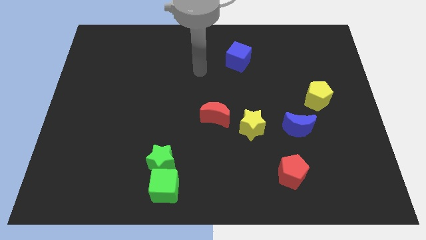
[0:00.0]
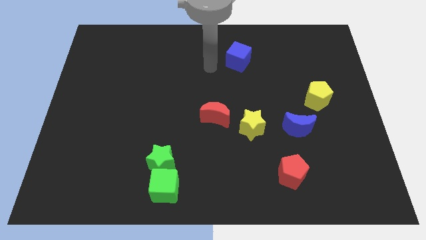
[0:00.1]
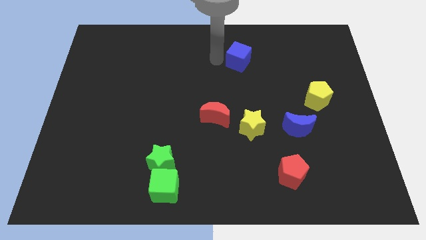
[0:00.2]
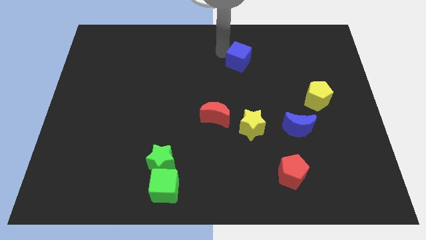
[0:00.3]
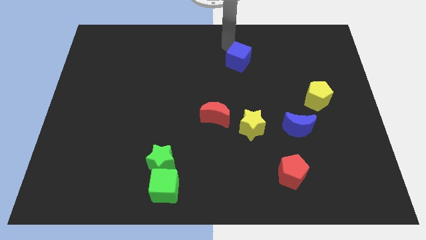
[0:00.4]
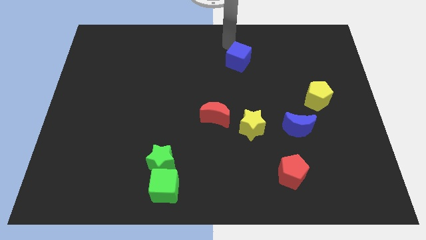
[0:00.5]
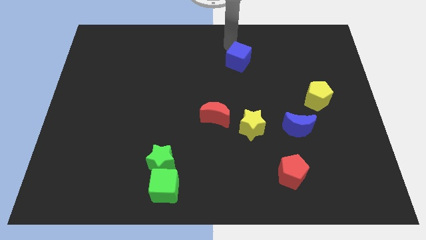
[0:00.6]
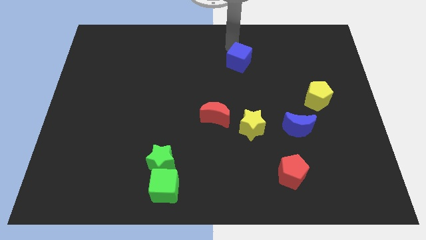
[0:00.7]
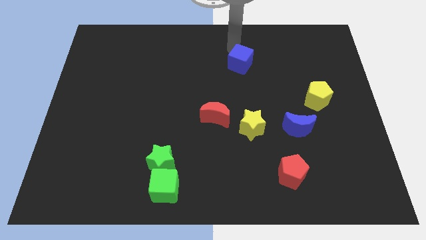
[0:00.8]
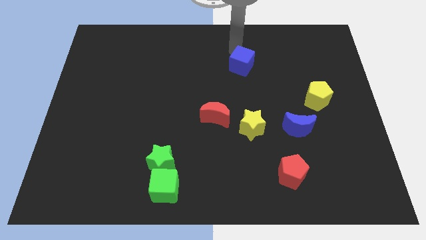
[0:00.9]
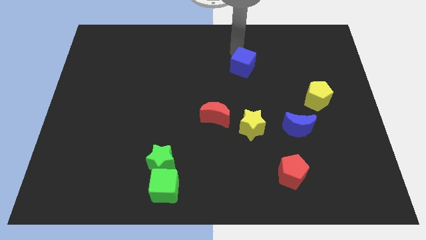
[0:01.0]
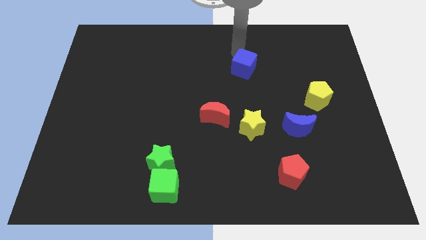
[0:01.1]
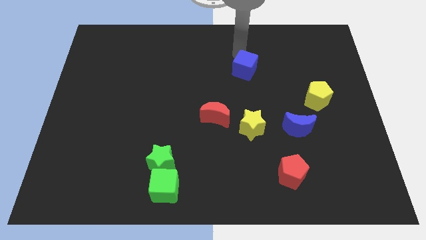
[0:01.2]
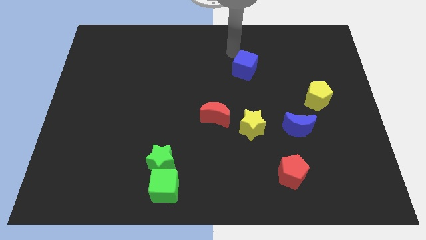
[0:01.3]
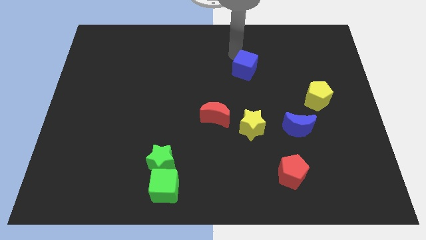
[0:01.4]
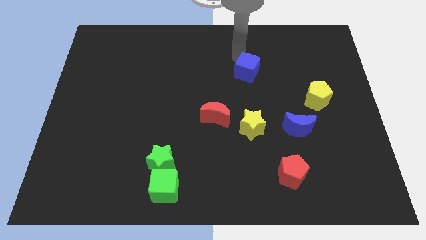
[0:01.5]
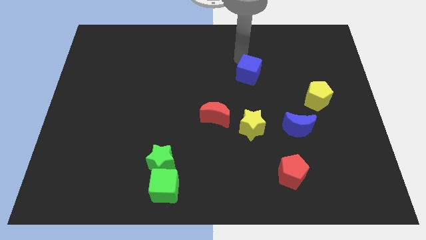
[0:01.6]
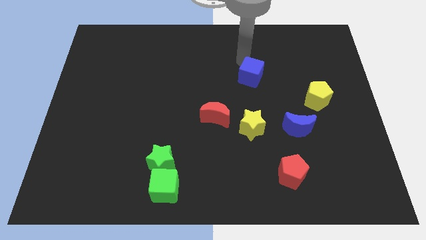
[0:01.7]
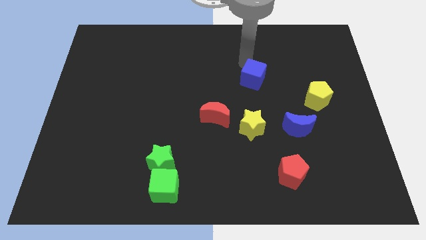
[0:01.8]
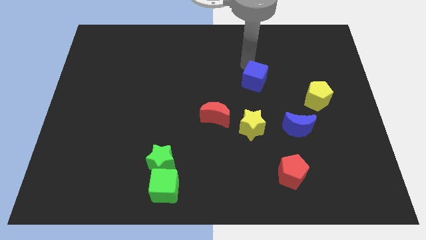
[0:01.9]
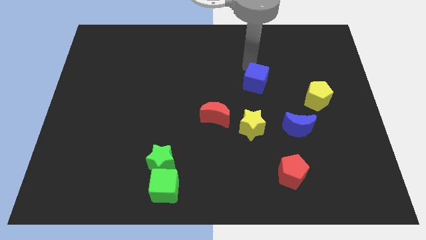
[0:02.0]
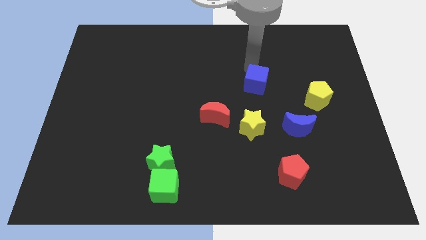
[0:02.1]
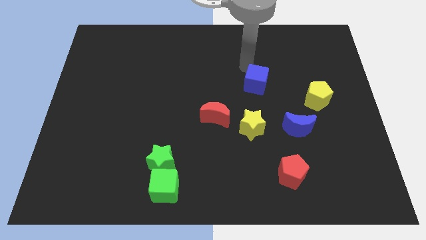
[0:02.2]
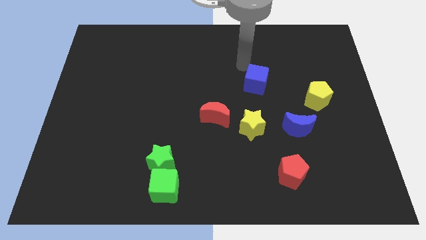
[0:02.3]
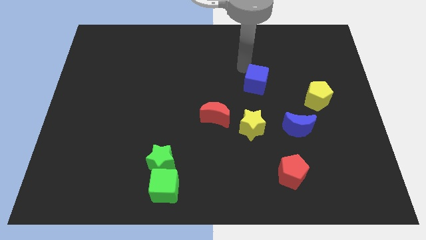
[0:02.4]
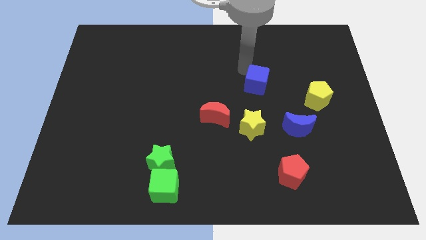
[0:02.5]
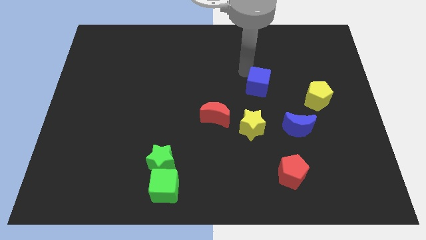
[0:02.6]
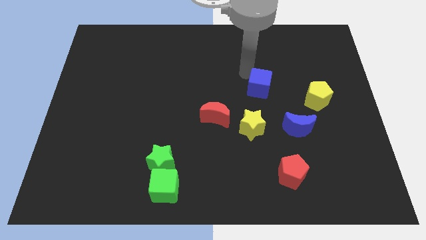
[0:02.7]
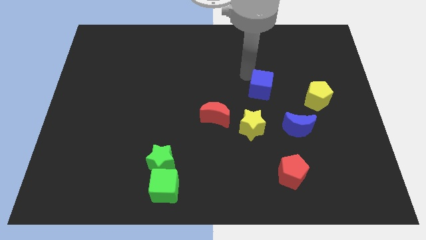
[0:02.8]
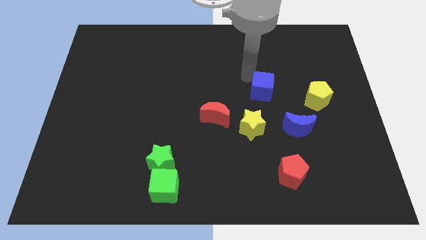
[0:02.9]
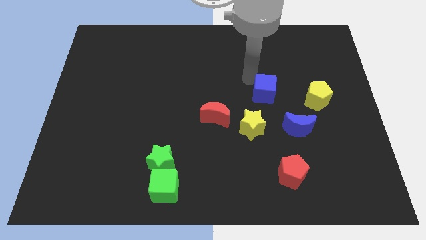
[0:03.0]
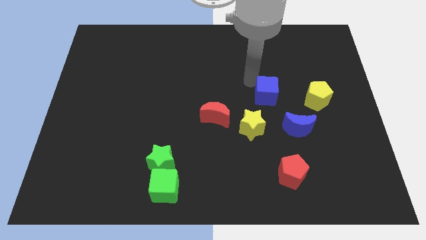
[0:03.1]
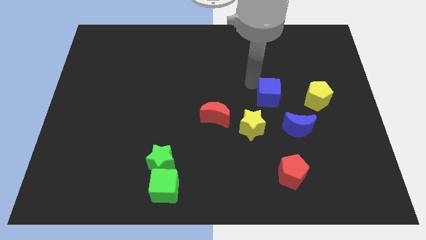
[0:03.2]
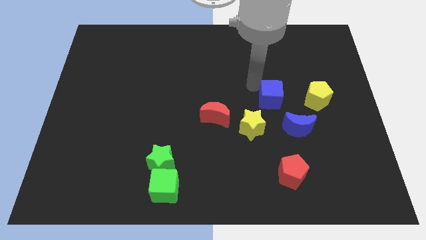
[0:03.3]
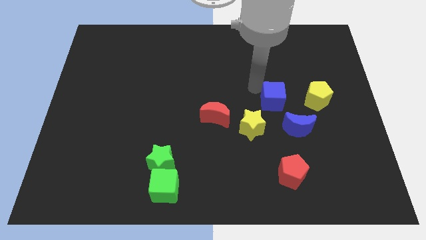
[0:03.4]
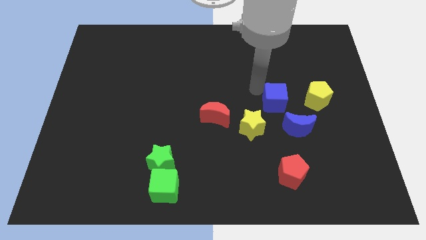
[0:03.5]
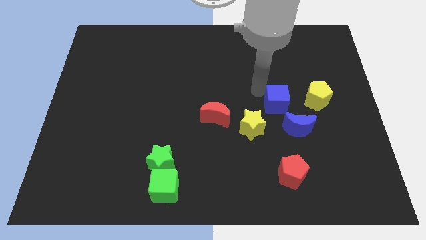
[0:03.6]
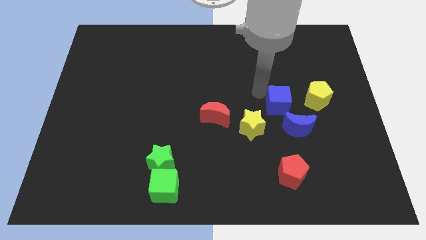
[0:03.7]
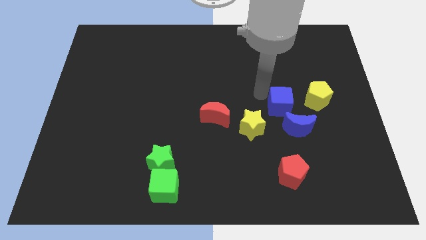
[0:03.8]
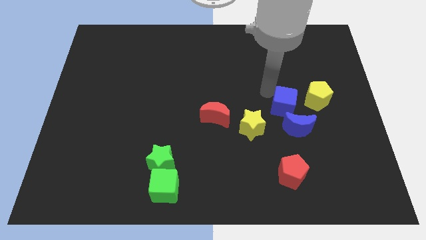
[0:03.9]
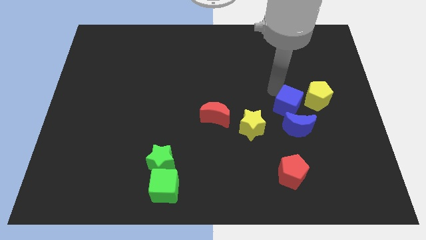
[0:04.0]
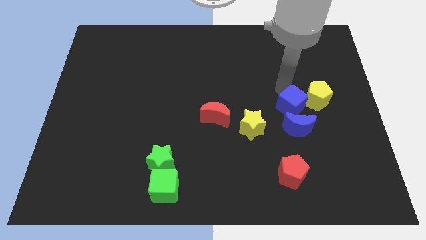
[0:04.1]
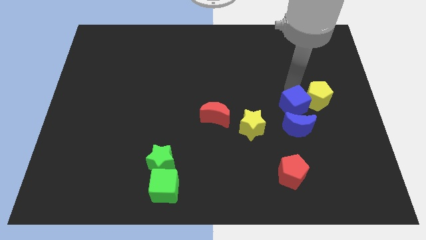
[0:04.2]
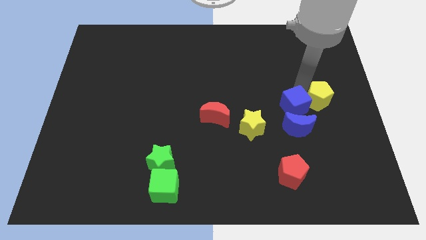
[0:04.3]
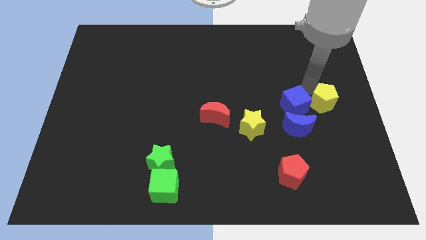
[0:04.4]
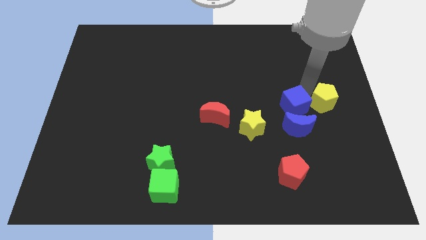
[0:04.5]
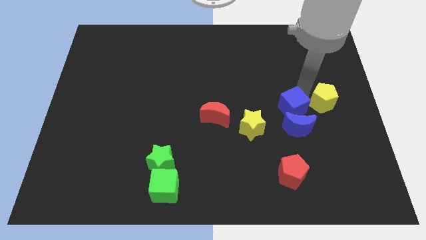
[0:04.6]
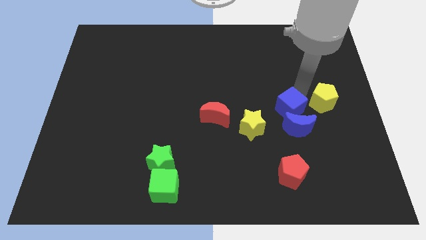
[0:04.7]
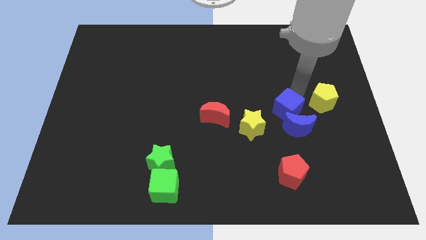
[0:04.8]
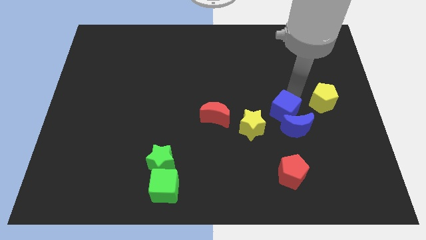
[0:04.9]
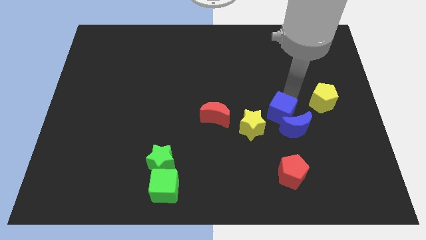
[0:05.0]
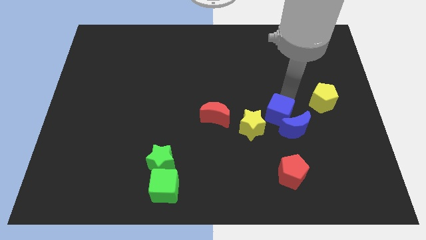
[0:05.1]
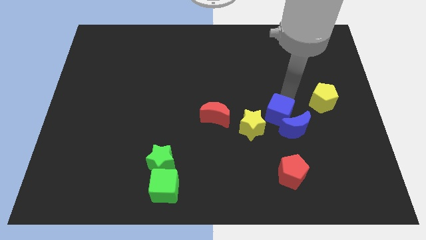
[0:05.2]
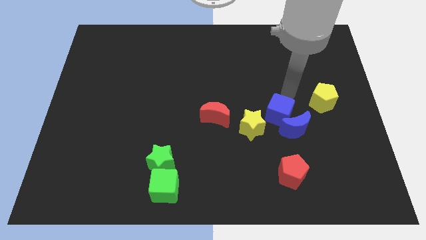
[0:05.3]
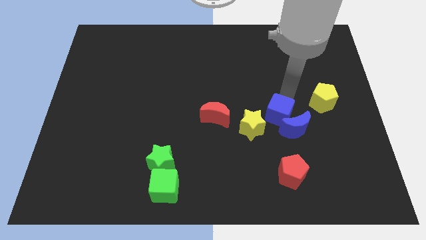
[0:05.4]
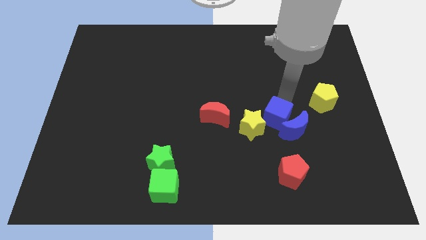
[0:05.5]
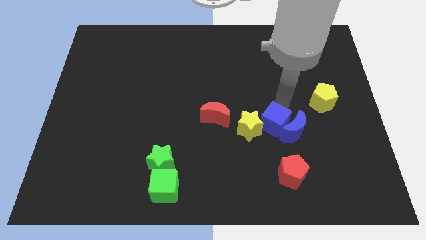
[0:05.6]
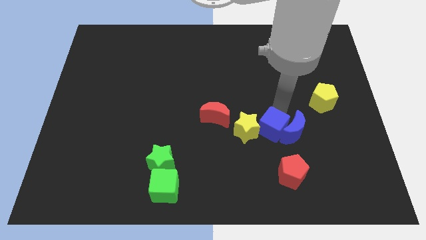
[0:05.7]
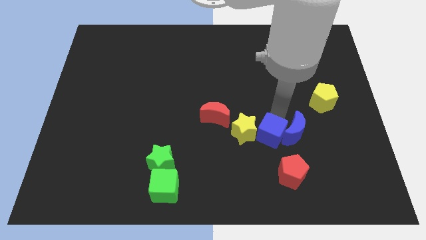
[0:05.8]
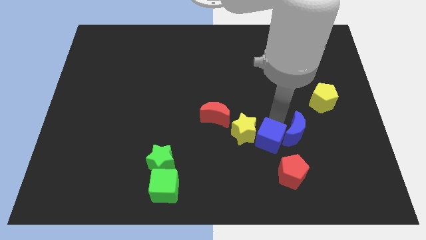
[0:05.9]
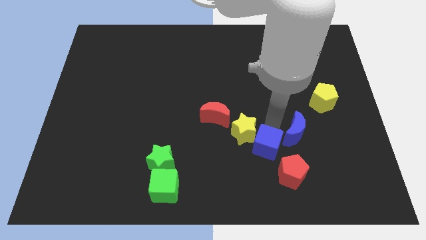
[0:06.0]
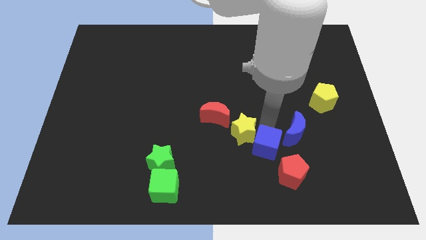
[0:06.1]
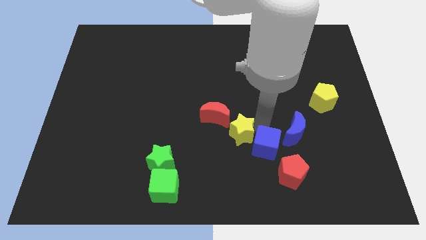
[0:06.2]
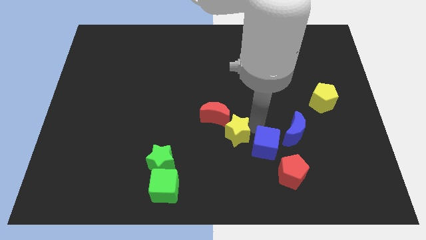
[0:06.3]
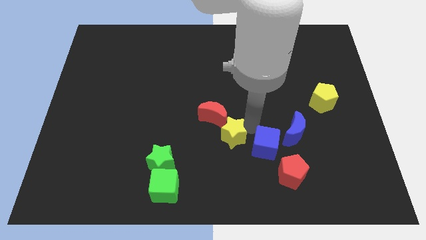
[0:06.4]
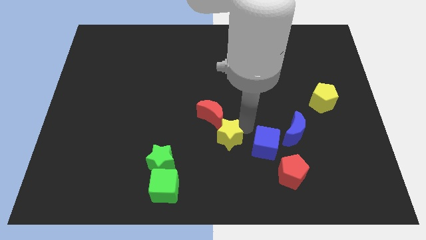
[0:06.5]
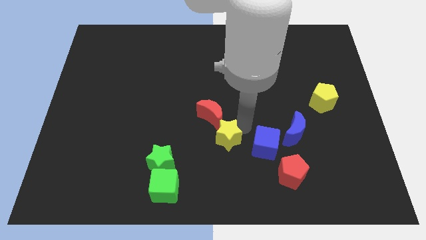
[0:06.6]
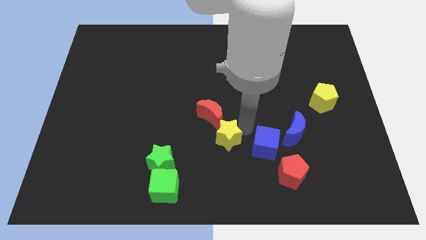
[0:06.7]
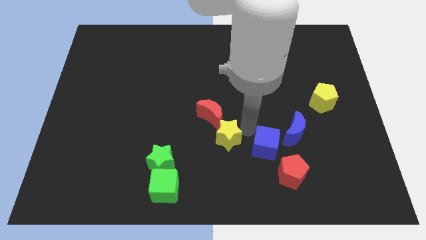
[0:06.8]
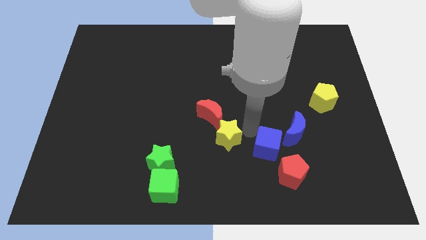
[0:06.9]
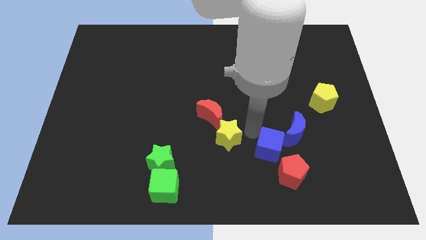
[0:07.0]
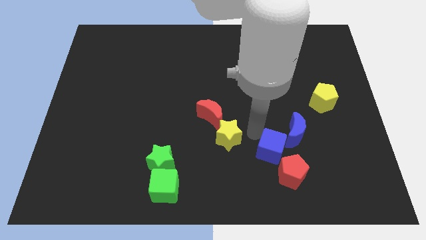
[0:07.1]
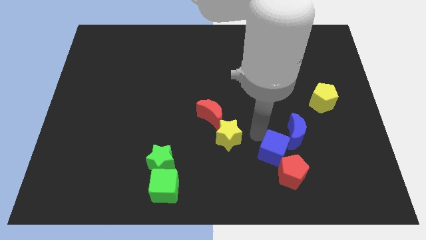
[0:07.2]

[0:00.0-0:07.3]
move the blue cube towards the red pentagon
